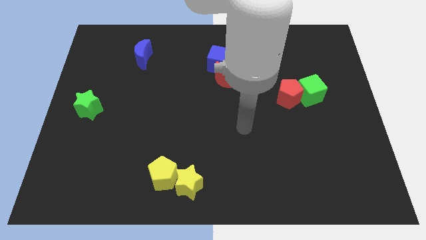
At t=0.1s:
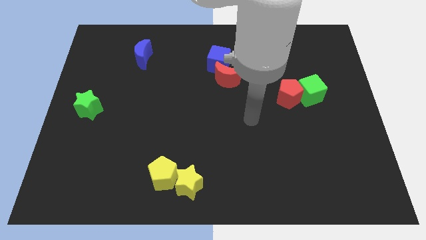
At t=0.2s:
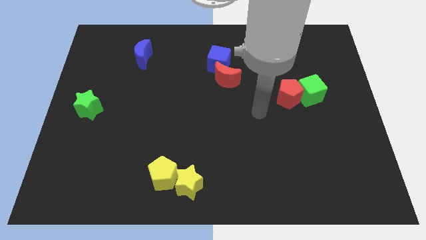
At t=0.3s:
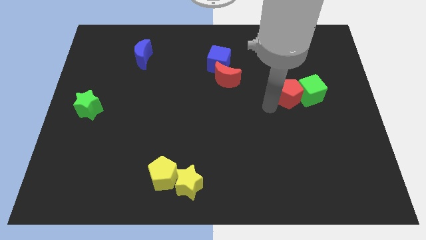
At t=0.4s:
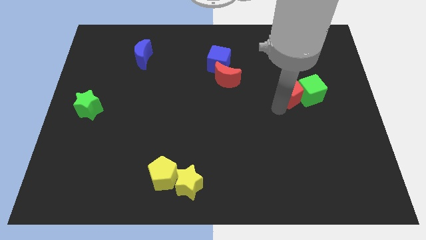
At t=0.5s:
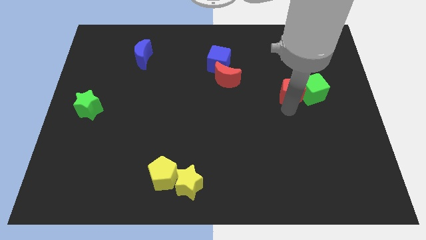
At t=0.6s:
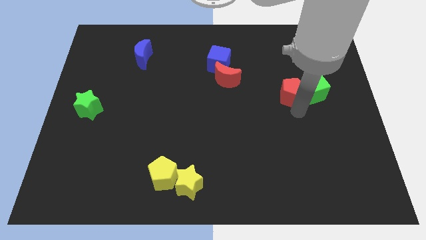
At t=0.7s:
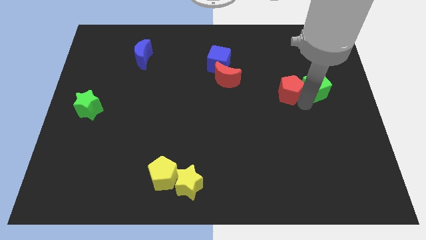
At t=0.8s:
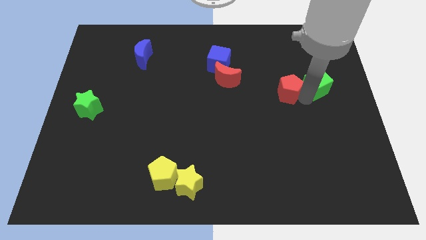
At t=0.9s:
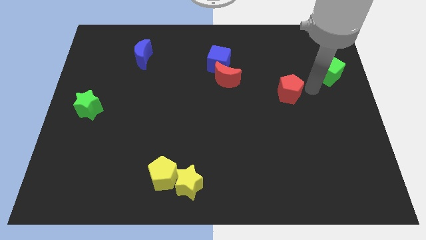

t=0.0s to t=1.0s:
pull the red pentagon apart from the green cube

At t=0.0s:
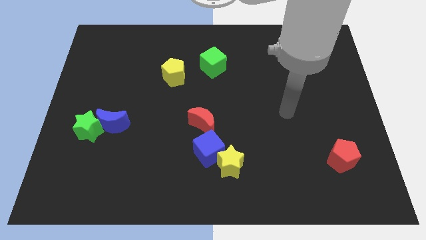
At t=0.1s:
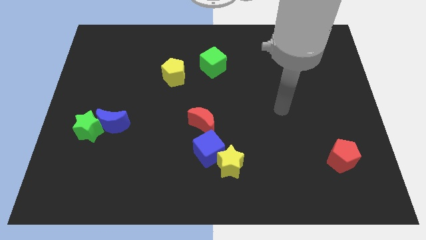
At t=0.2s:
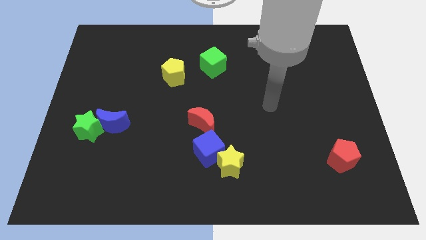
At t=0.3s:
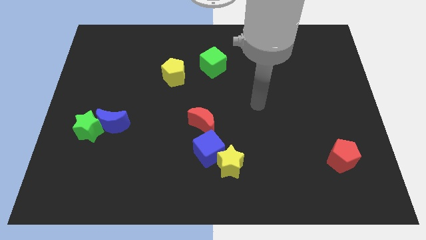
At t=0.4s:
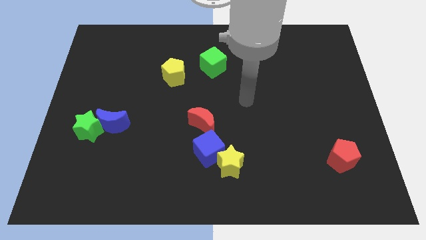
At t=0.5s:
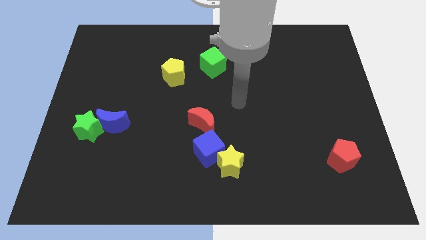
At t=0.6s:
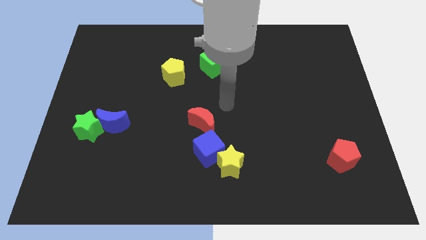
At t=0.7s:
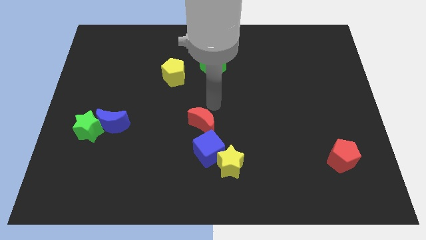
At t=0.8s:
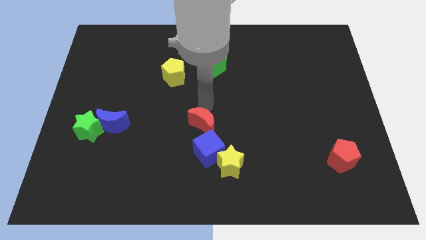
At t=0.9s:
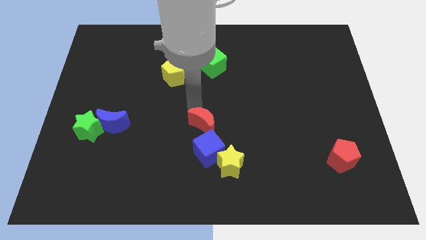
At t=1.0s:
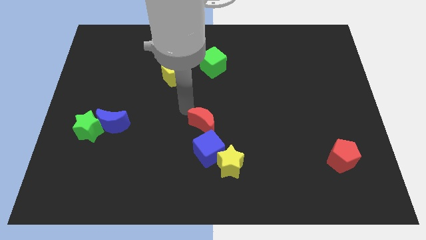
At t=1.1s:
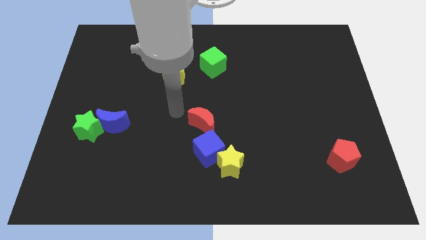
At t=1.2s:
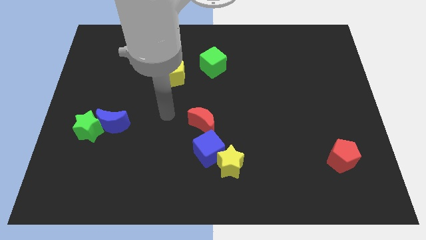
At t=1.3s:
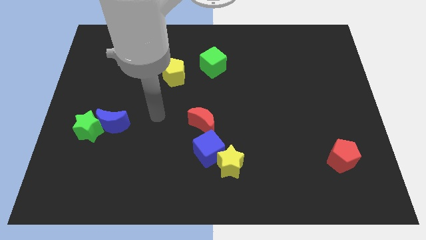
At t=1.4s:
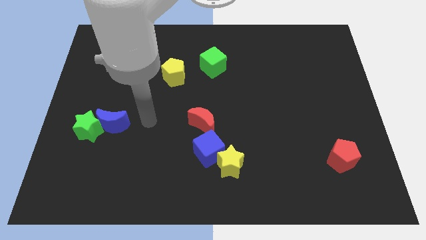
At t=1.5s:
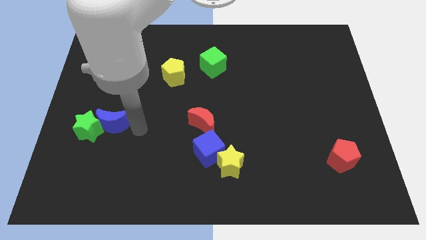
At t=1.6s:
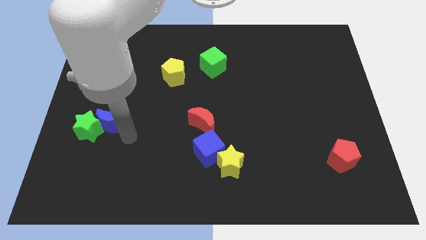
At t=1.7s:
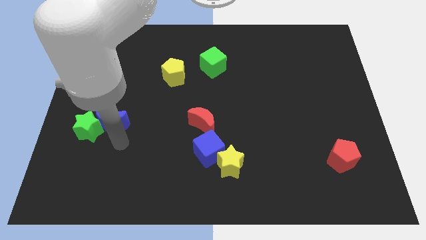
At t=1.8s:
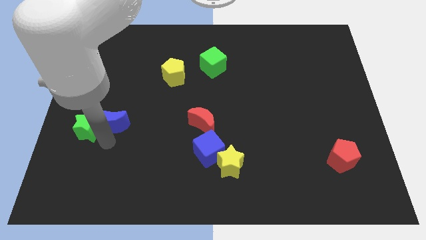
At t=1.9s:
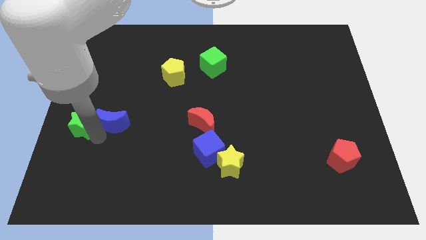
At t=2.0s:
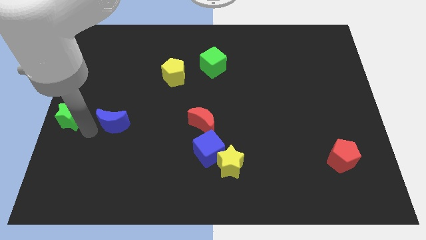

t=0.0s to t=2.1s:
separate the blue moon from the green star

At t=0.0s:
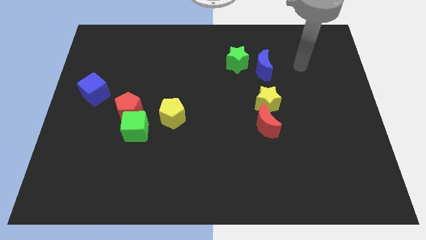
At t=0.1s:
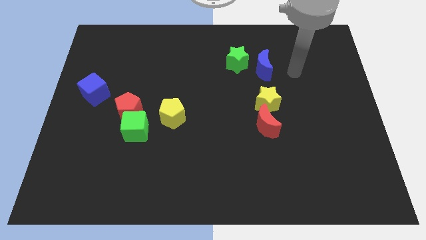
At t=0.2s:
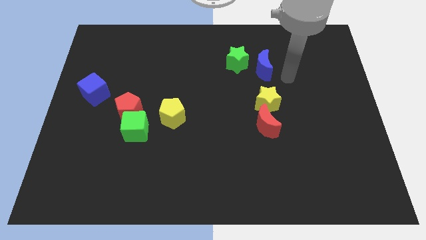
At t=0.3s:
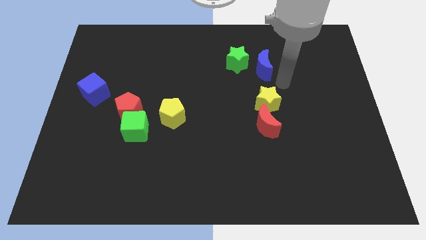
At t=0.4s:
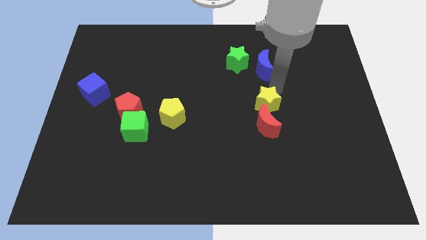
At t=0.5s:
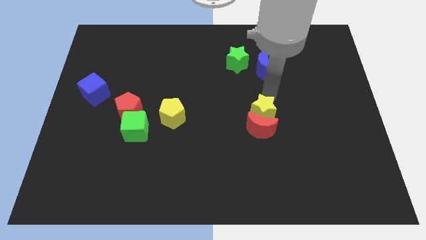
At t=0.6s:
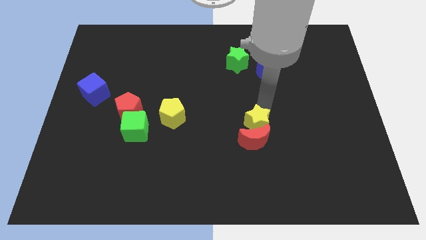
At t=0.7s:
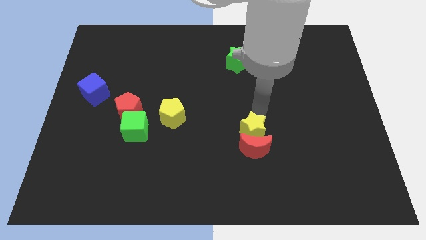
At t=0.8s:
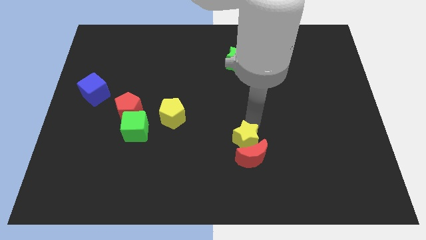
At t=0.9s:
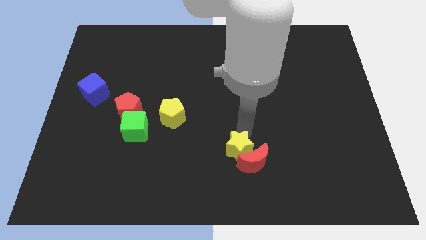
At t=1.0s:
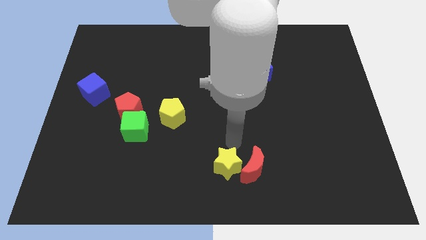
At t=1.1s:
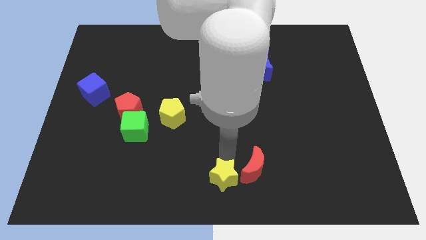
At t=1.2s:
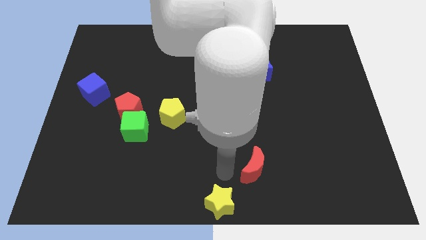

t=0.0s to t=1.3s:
move the red moon away from the yellow star

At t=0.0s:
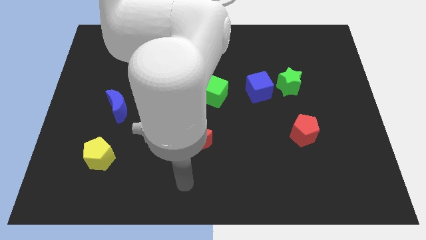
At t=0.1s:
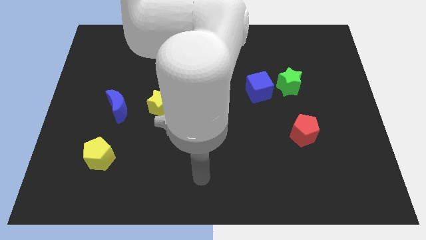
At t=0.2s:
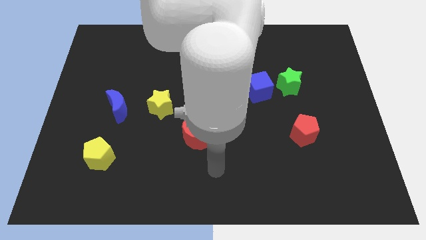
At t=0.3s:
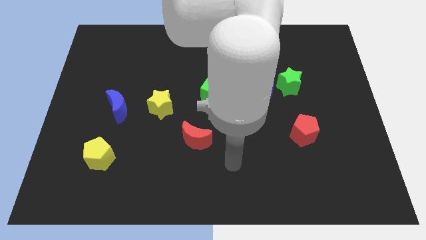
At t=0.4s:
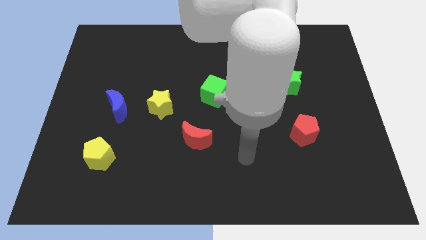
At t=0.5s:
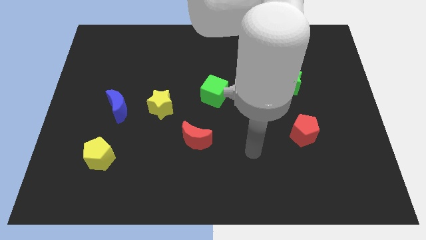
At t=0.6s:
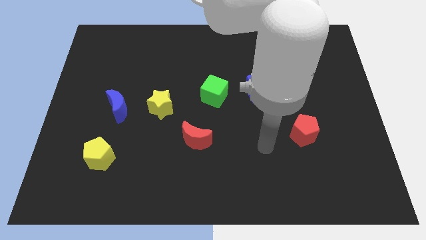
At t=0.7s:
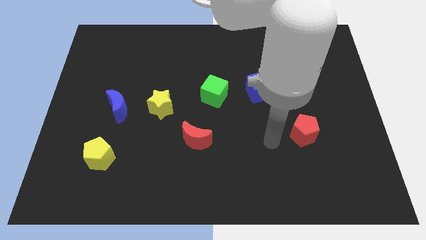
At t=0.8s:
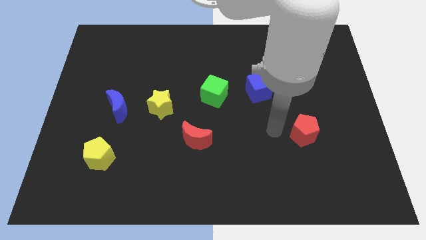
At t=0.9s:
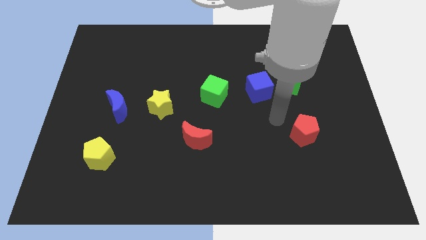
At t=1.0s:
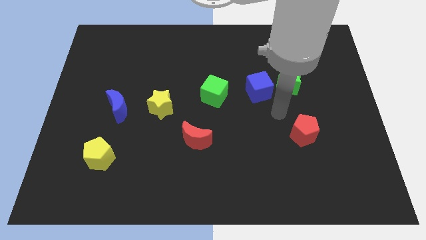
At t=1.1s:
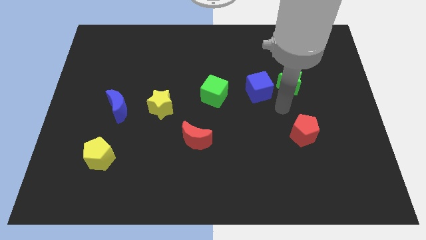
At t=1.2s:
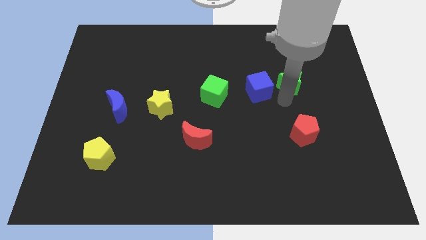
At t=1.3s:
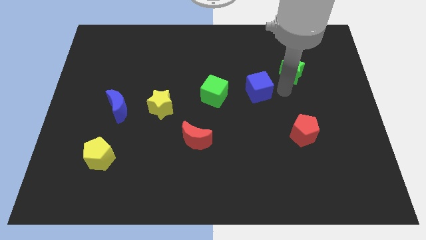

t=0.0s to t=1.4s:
move the blue cube away from the green star

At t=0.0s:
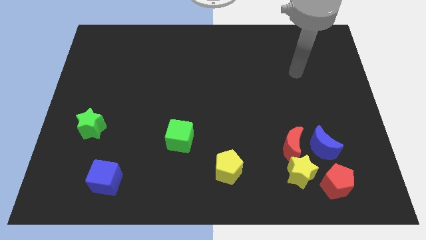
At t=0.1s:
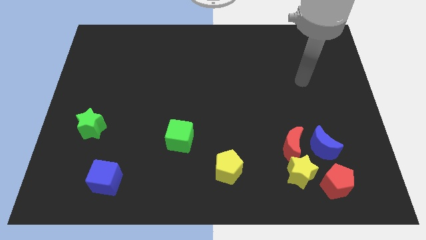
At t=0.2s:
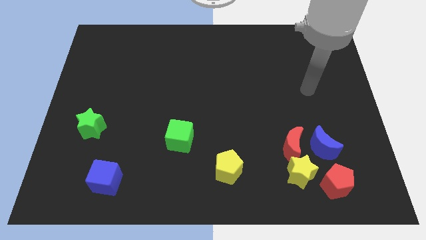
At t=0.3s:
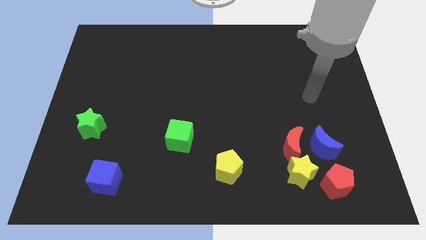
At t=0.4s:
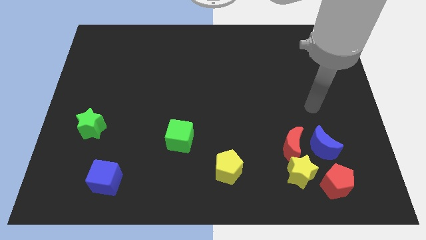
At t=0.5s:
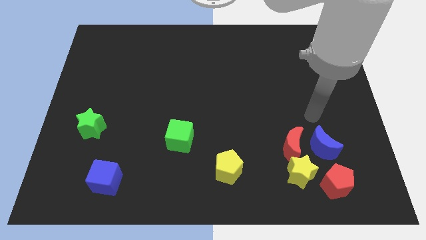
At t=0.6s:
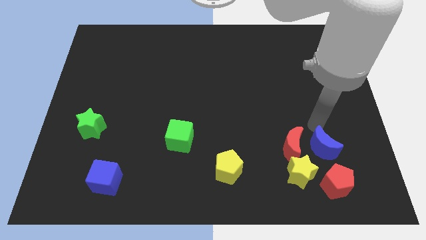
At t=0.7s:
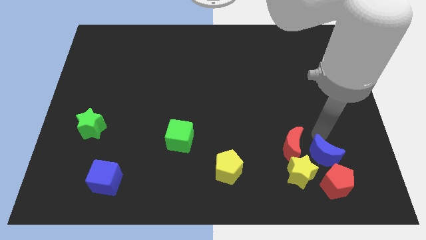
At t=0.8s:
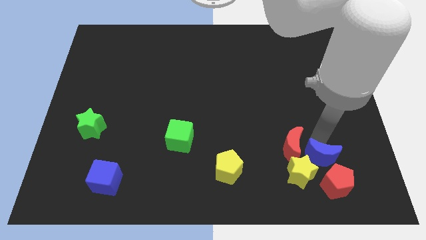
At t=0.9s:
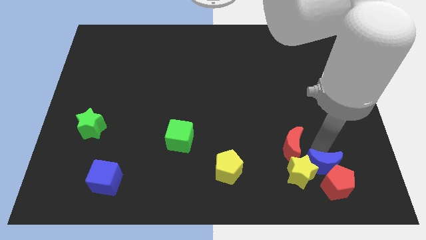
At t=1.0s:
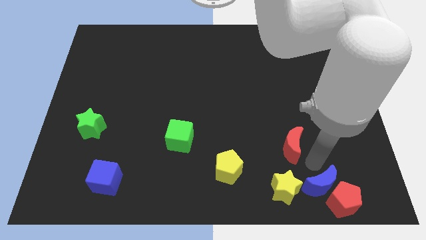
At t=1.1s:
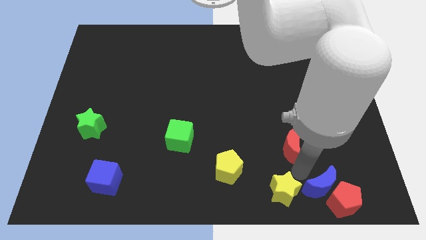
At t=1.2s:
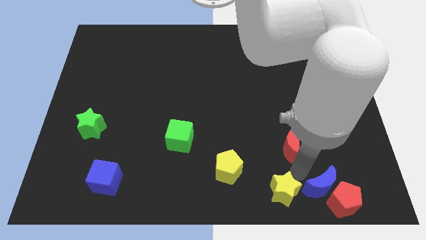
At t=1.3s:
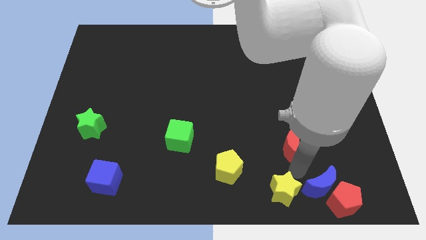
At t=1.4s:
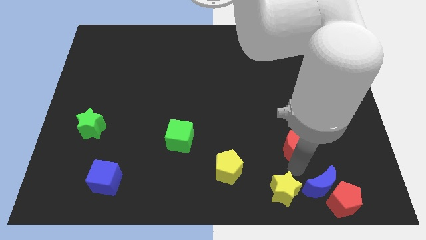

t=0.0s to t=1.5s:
separate the red moon from the yellow star and blue moon

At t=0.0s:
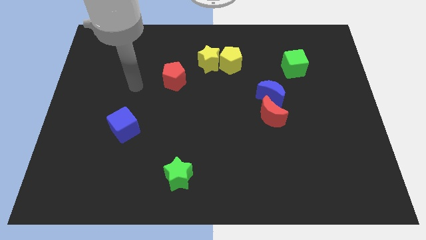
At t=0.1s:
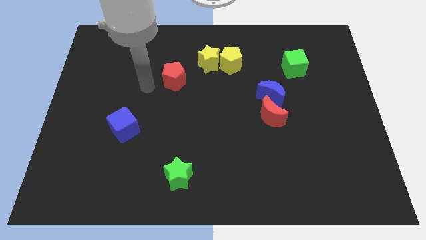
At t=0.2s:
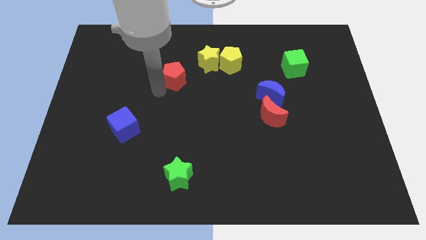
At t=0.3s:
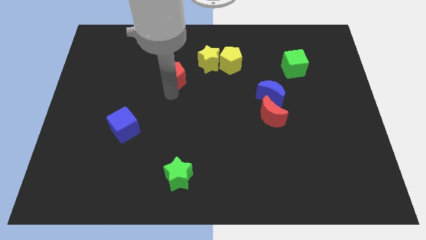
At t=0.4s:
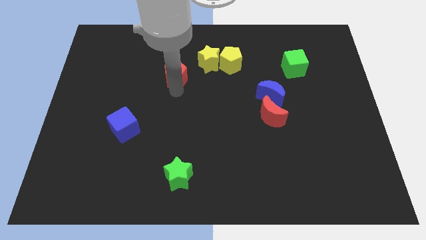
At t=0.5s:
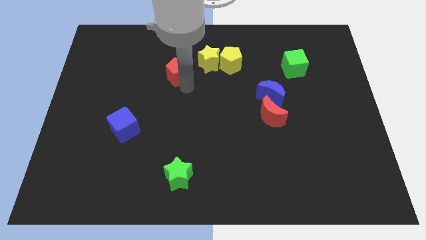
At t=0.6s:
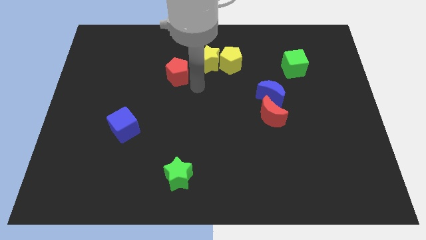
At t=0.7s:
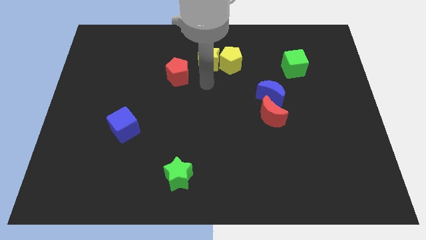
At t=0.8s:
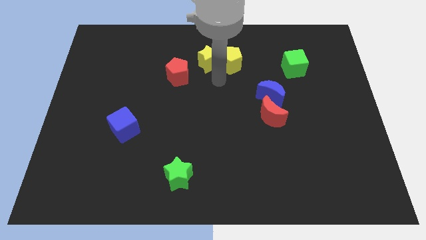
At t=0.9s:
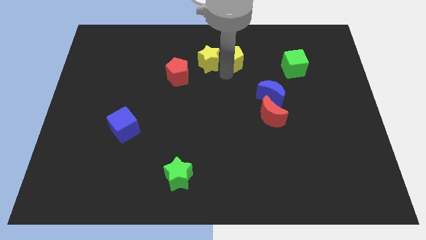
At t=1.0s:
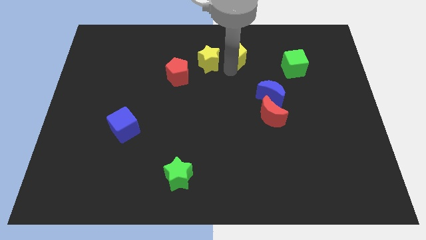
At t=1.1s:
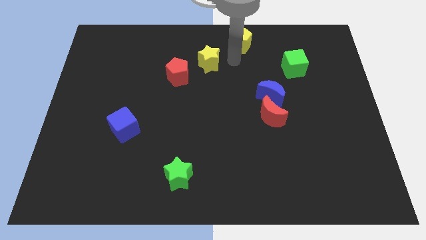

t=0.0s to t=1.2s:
move the yellow star away from the yellow pentagon

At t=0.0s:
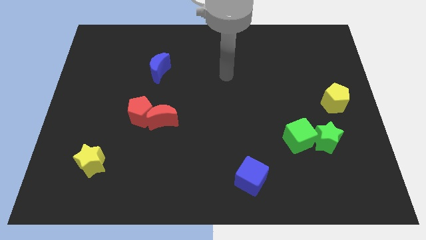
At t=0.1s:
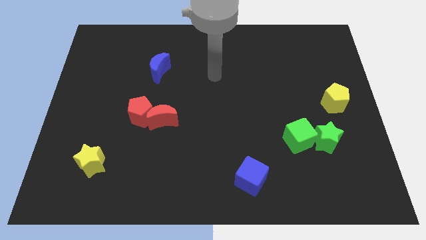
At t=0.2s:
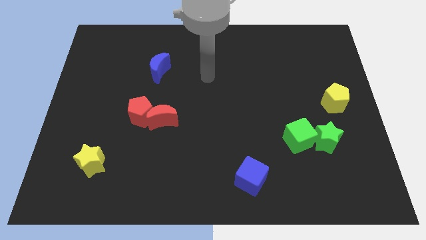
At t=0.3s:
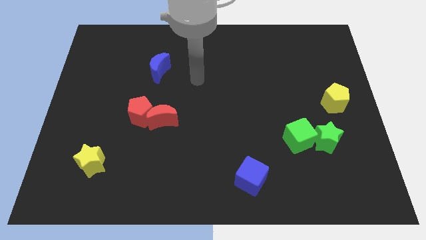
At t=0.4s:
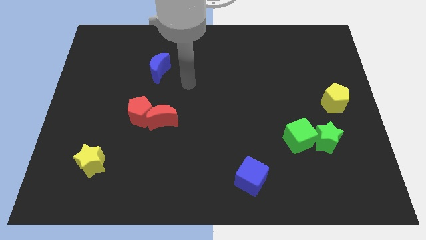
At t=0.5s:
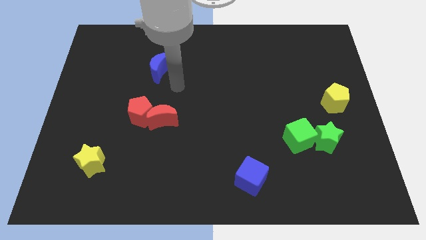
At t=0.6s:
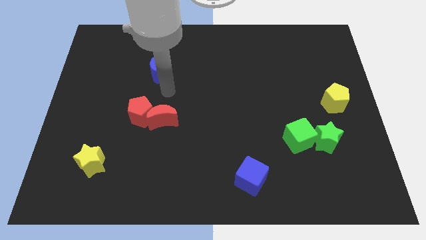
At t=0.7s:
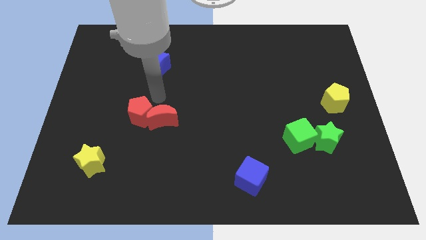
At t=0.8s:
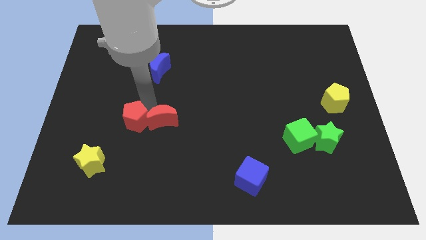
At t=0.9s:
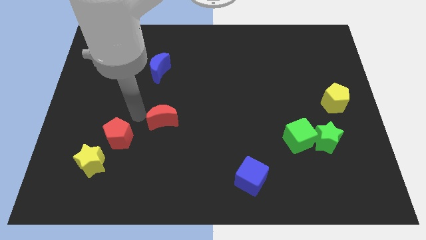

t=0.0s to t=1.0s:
separate the red moon from the red pentagon
